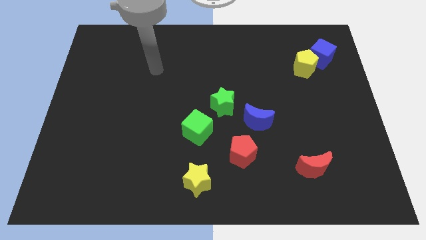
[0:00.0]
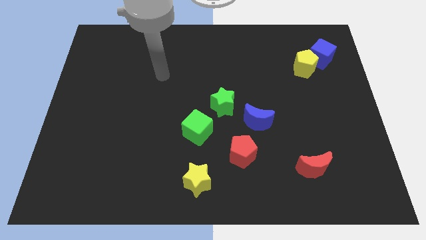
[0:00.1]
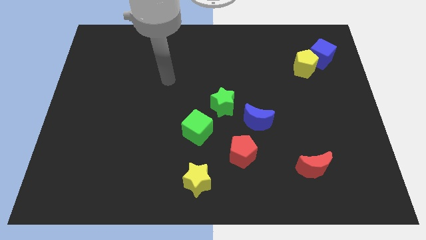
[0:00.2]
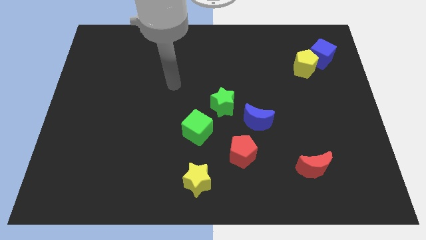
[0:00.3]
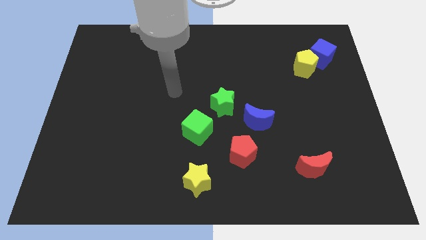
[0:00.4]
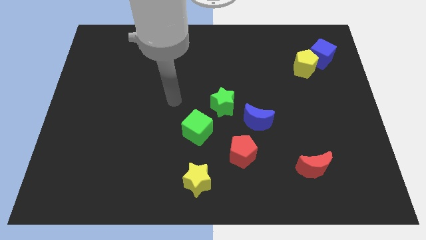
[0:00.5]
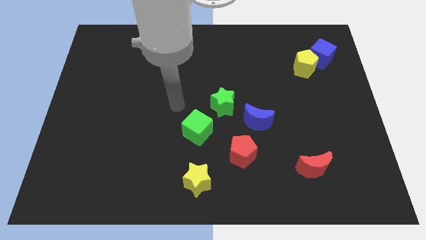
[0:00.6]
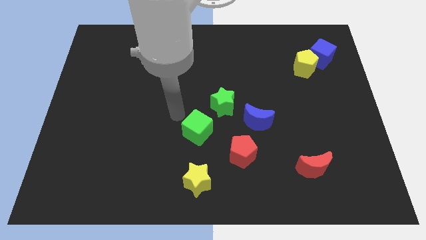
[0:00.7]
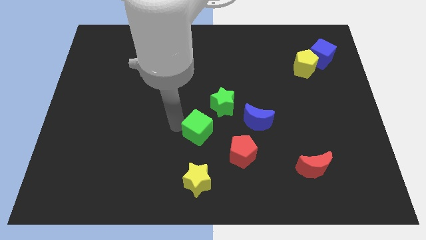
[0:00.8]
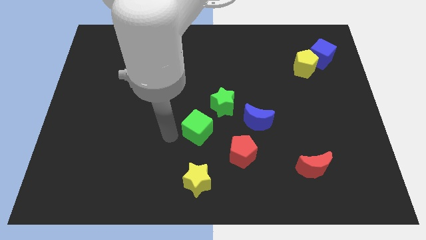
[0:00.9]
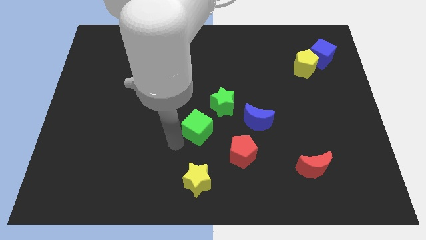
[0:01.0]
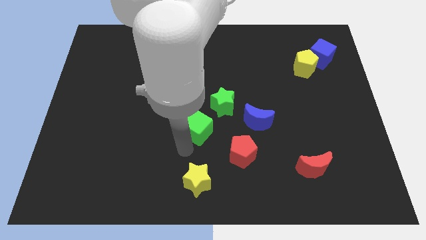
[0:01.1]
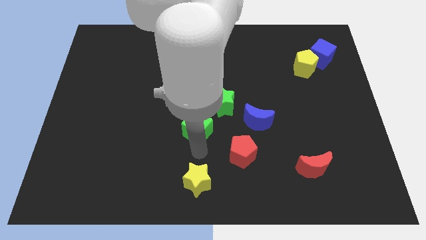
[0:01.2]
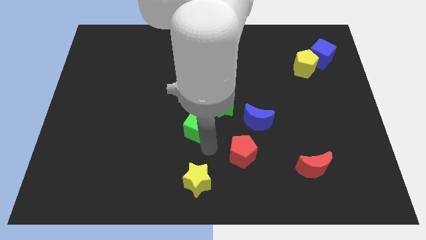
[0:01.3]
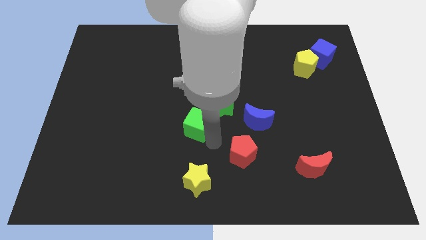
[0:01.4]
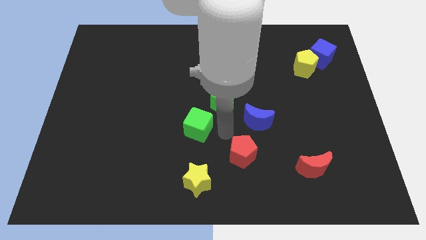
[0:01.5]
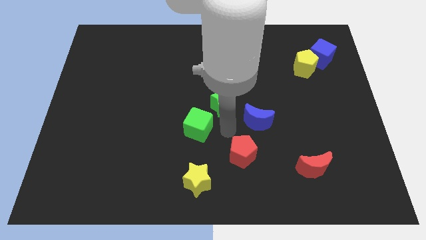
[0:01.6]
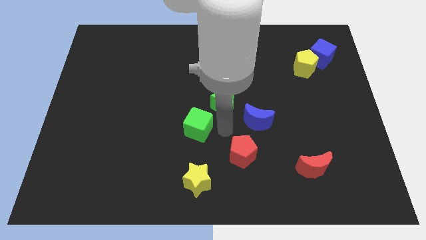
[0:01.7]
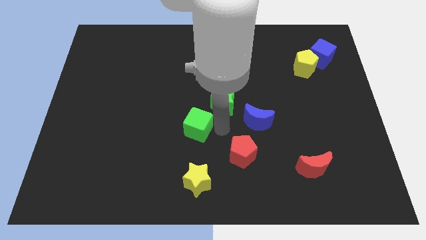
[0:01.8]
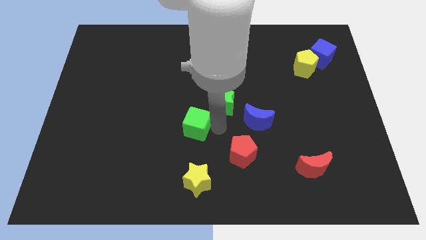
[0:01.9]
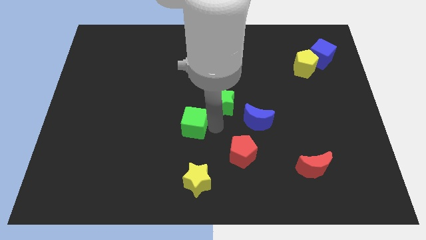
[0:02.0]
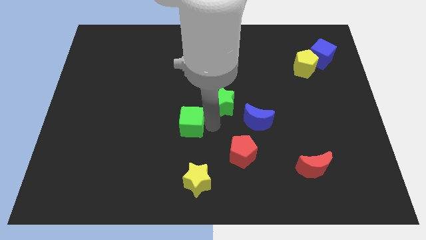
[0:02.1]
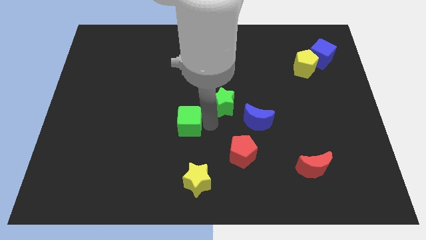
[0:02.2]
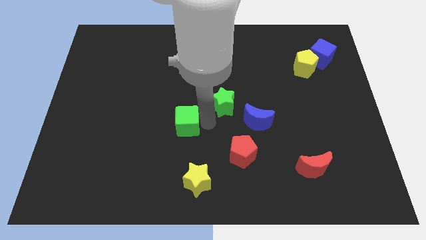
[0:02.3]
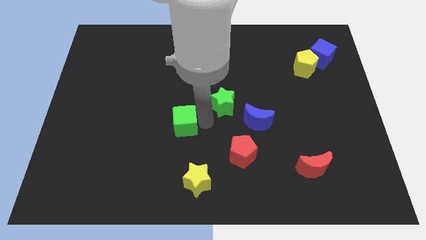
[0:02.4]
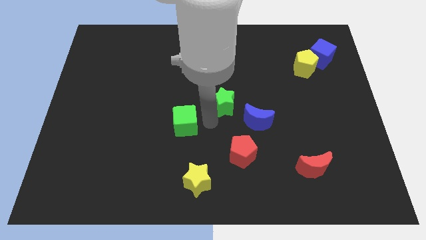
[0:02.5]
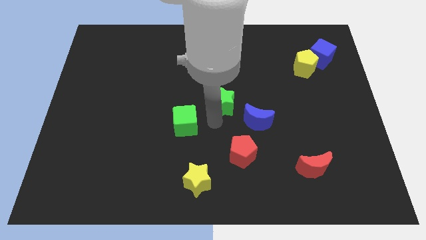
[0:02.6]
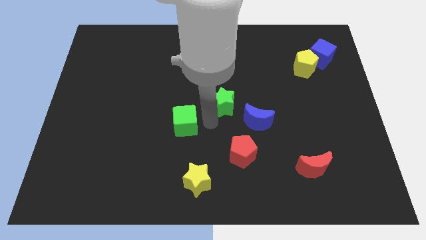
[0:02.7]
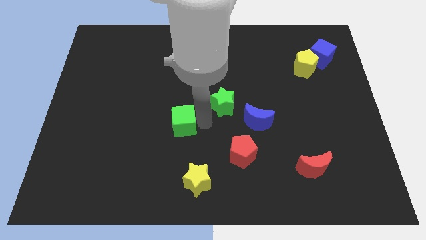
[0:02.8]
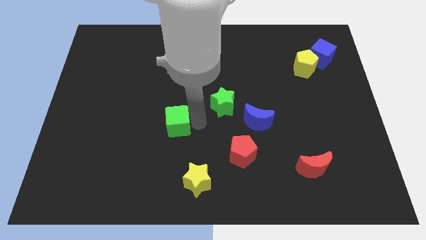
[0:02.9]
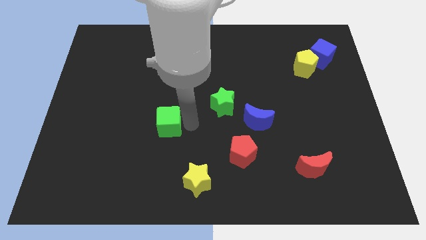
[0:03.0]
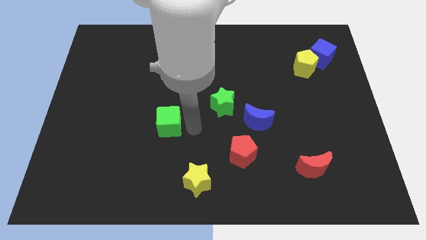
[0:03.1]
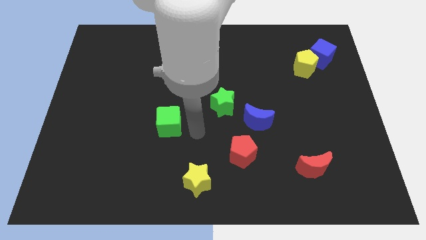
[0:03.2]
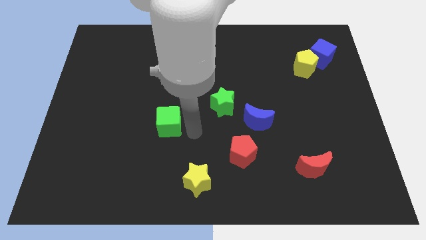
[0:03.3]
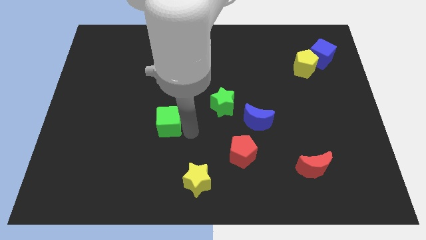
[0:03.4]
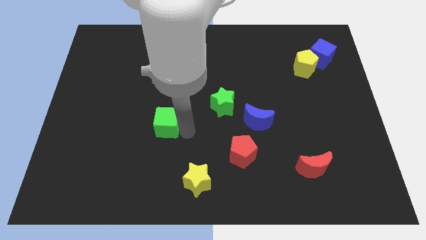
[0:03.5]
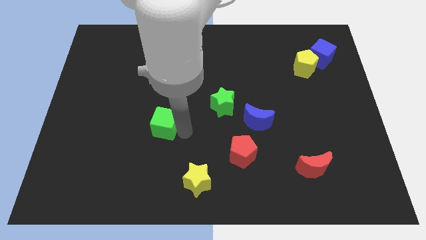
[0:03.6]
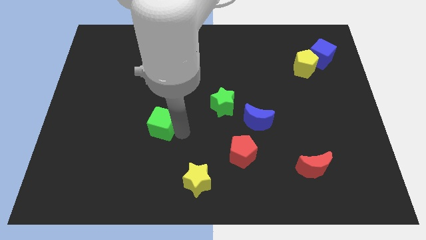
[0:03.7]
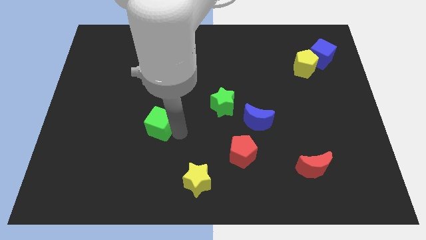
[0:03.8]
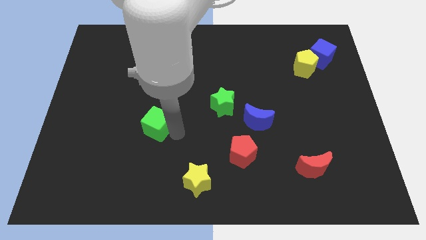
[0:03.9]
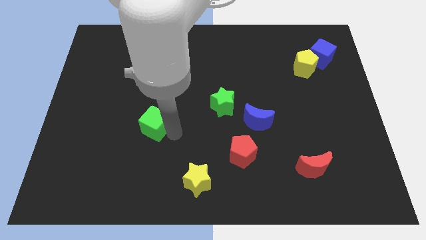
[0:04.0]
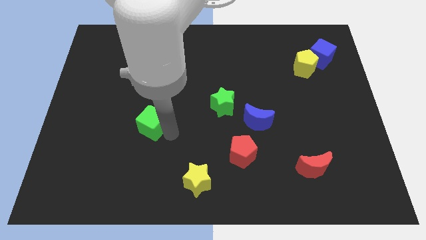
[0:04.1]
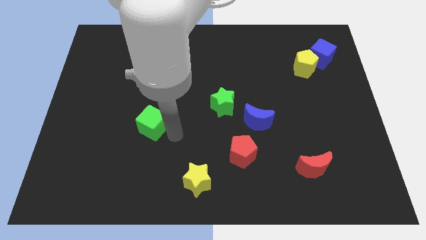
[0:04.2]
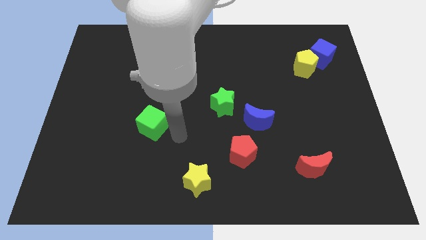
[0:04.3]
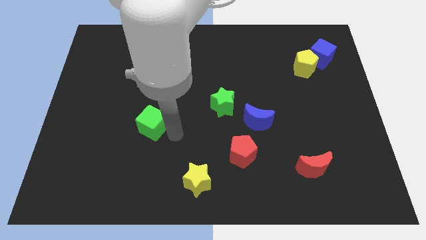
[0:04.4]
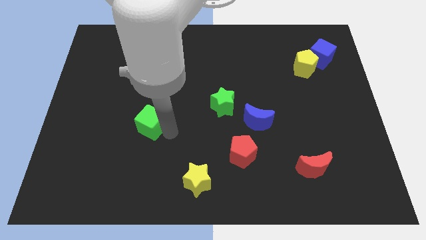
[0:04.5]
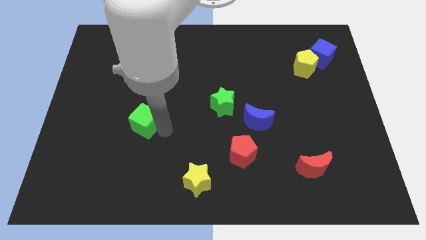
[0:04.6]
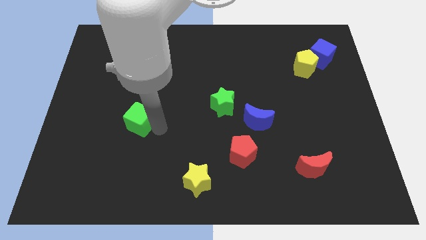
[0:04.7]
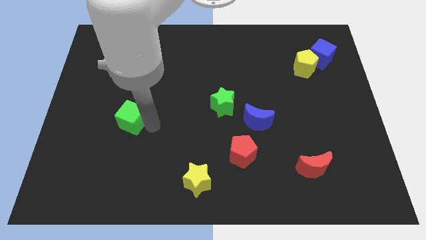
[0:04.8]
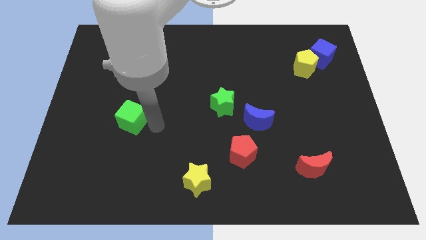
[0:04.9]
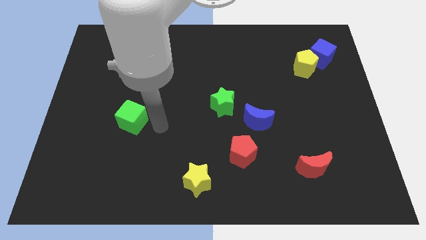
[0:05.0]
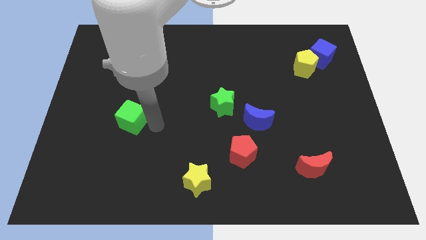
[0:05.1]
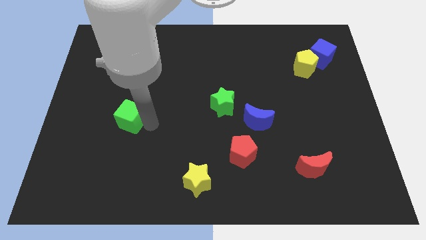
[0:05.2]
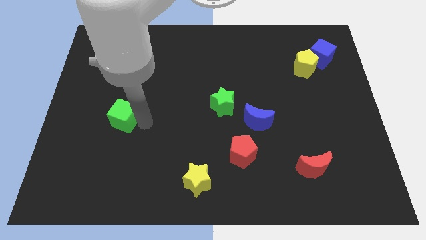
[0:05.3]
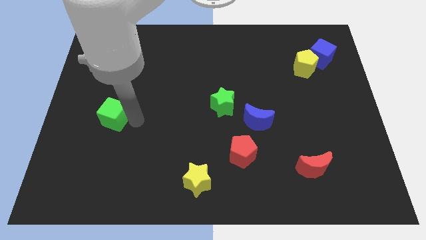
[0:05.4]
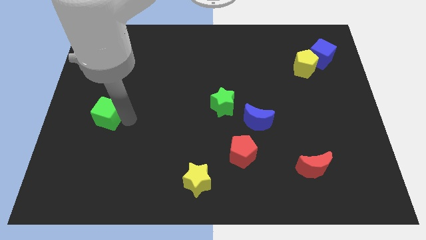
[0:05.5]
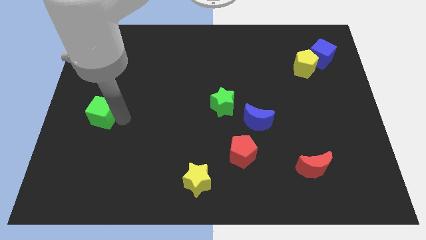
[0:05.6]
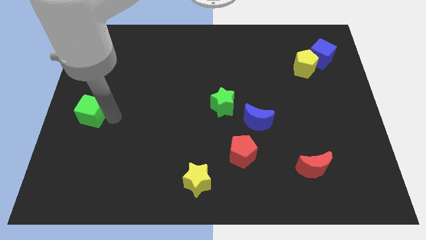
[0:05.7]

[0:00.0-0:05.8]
move the green cube to the left side of the board

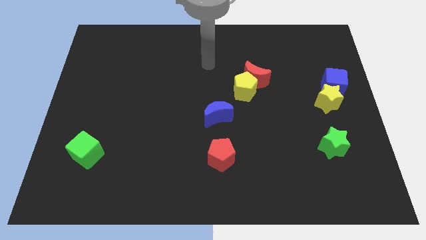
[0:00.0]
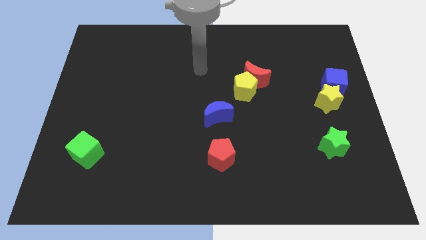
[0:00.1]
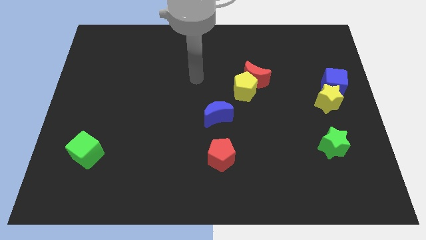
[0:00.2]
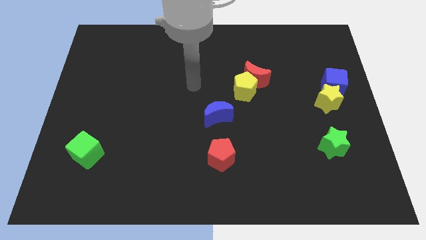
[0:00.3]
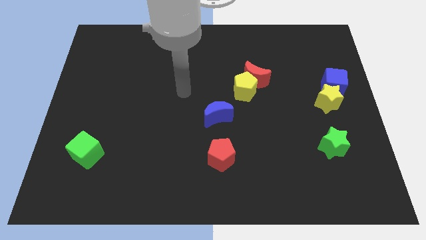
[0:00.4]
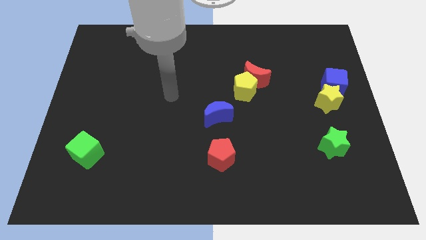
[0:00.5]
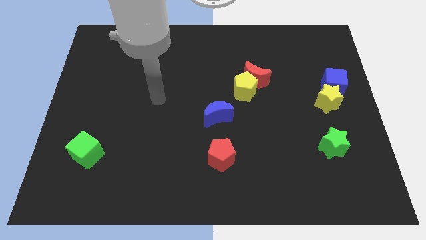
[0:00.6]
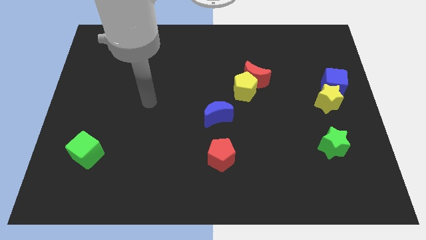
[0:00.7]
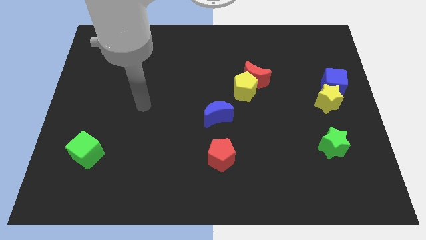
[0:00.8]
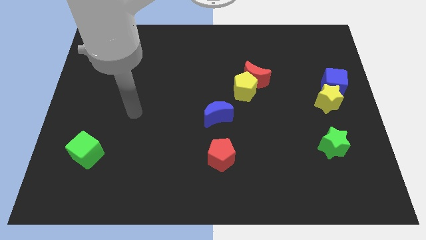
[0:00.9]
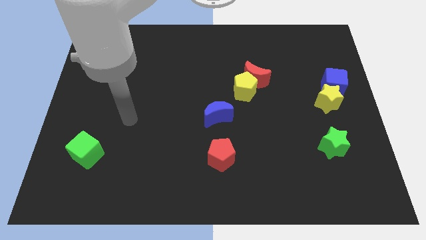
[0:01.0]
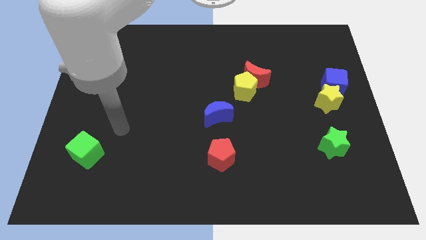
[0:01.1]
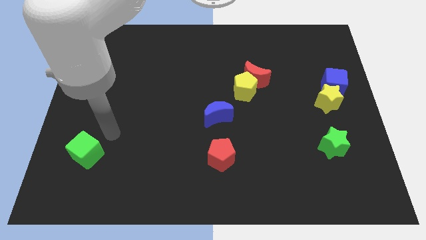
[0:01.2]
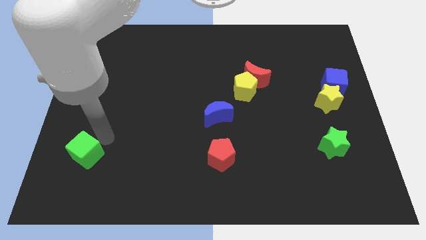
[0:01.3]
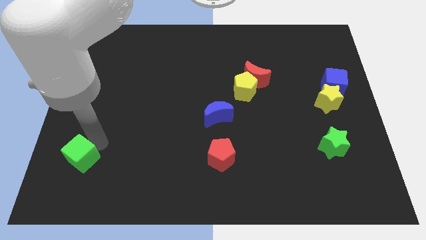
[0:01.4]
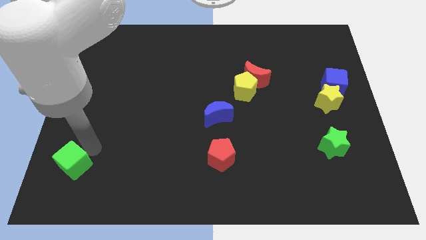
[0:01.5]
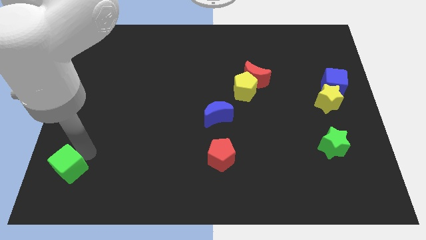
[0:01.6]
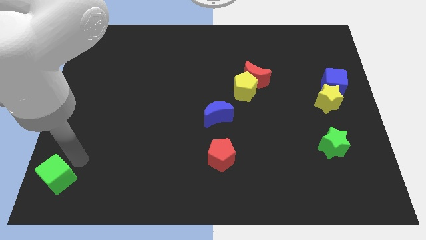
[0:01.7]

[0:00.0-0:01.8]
move the green cube to the bottom left corner
